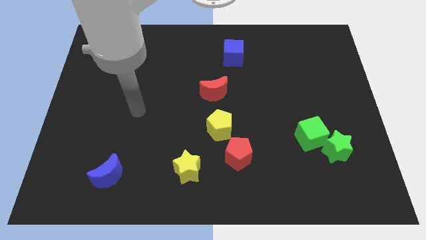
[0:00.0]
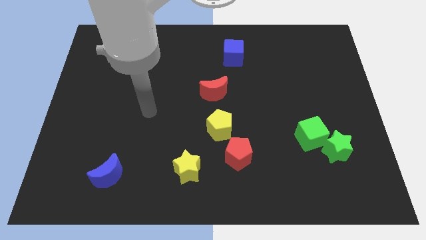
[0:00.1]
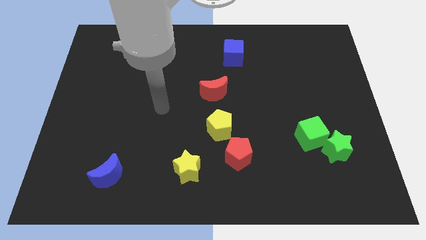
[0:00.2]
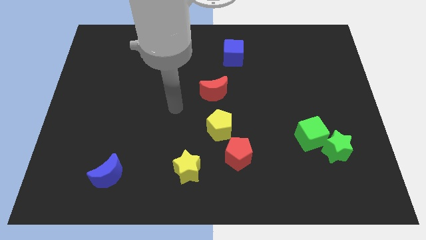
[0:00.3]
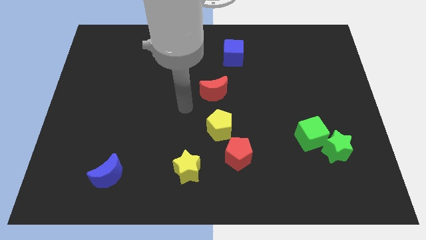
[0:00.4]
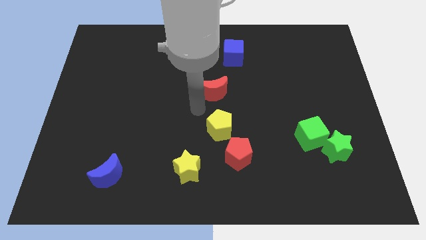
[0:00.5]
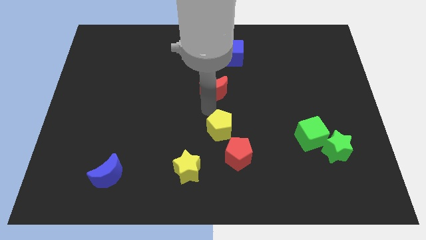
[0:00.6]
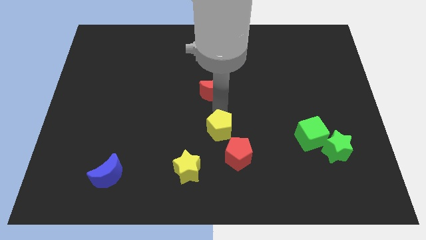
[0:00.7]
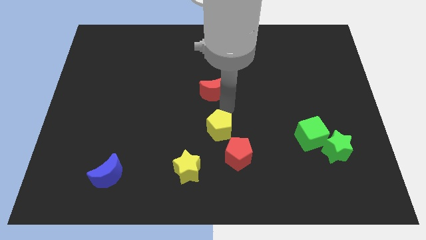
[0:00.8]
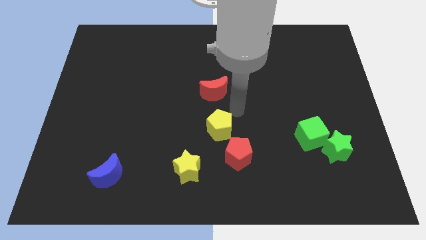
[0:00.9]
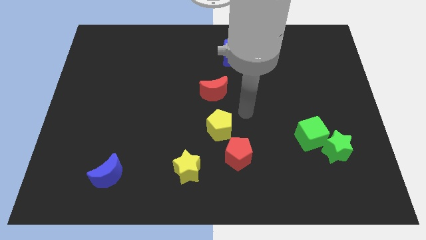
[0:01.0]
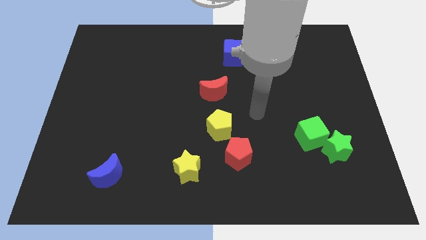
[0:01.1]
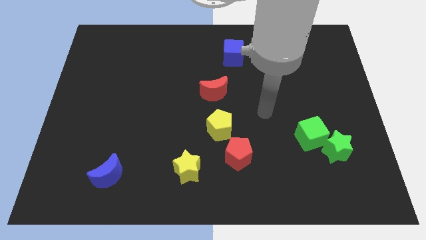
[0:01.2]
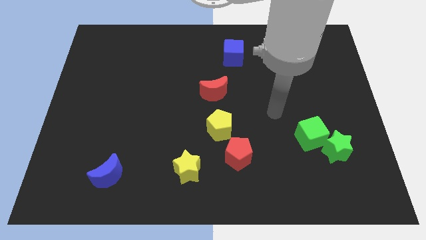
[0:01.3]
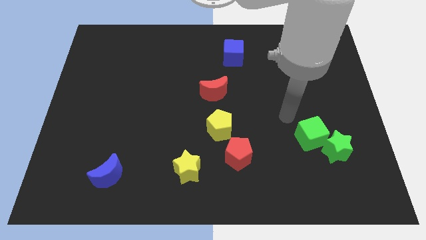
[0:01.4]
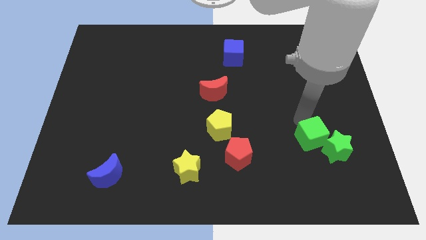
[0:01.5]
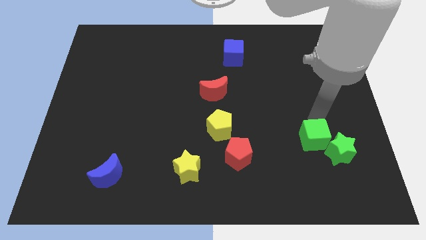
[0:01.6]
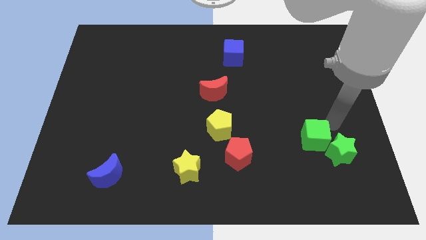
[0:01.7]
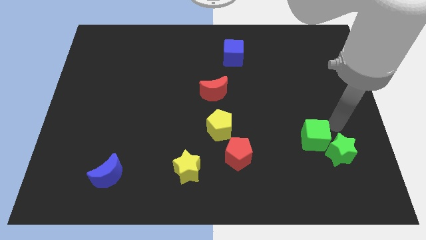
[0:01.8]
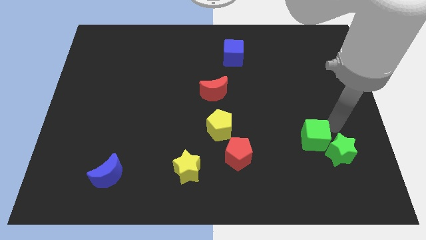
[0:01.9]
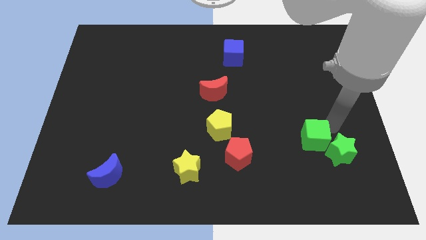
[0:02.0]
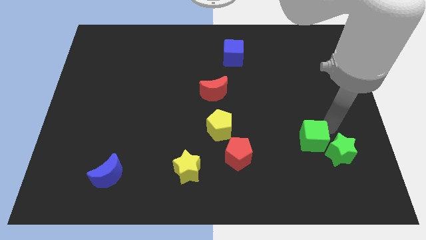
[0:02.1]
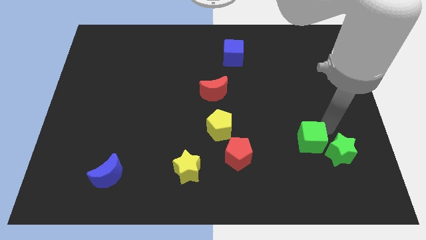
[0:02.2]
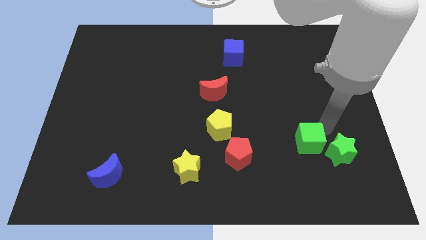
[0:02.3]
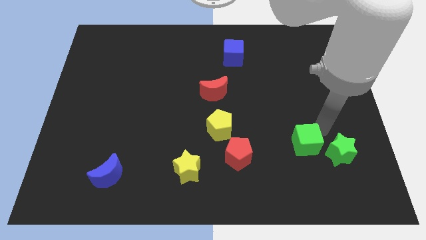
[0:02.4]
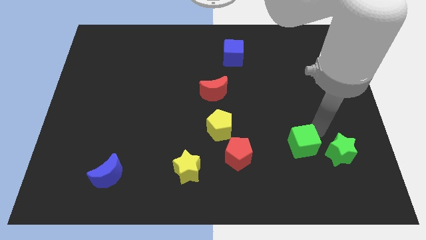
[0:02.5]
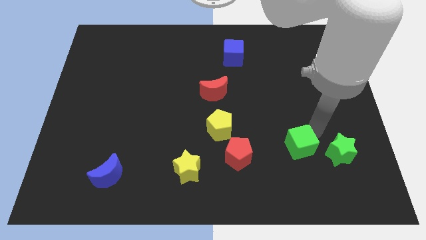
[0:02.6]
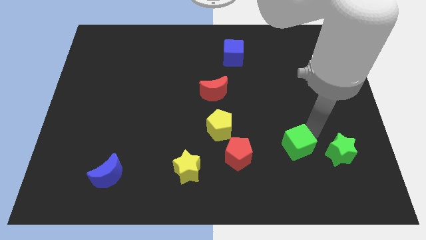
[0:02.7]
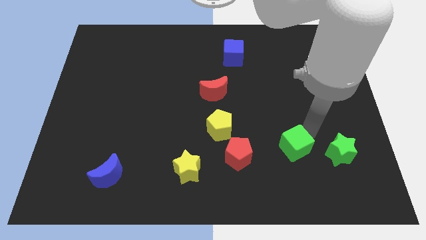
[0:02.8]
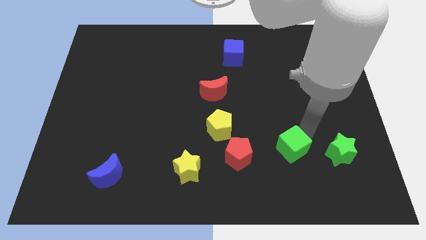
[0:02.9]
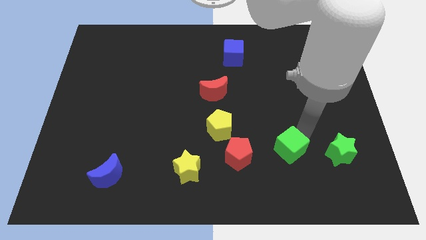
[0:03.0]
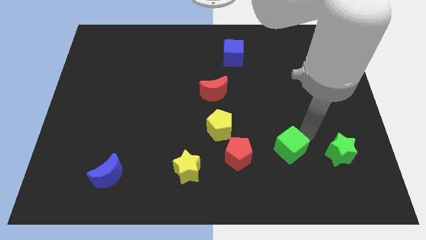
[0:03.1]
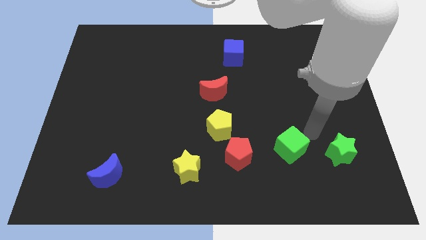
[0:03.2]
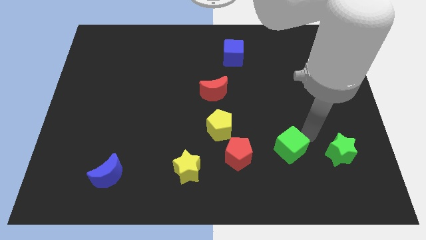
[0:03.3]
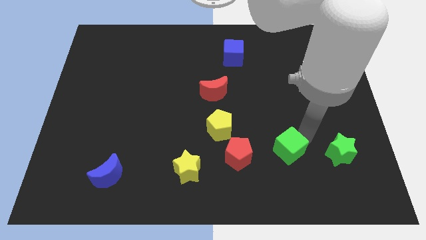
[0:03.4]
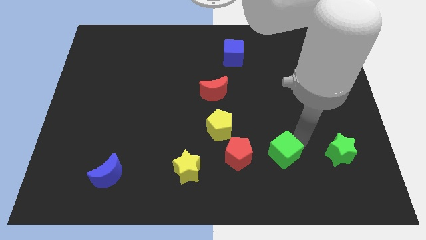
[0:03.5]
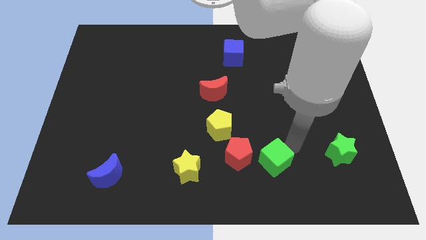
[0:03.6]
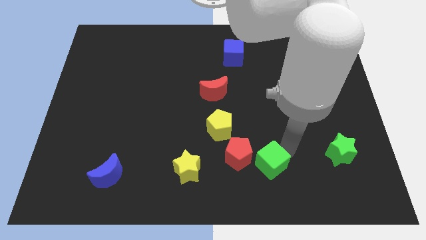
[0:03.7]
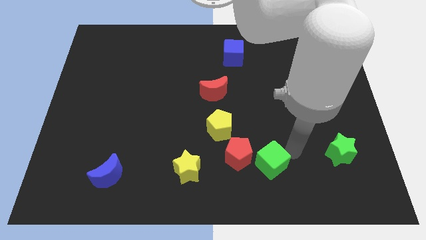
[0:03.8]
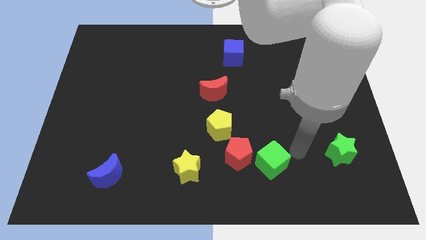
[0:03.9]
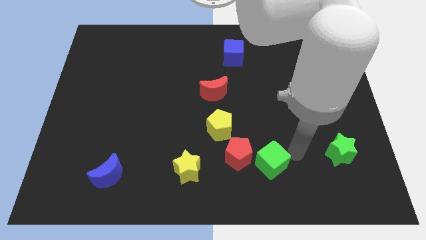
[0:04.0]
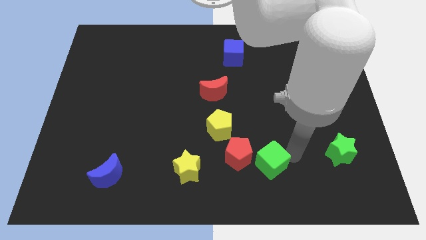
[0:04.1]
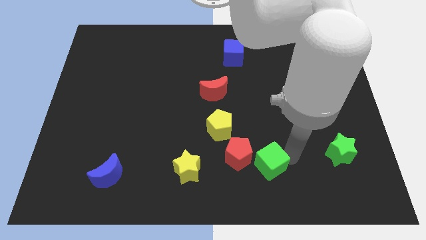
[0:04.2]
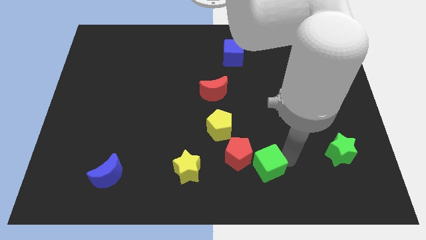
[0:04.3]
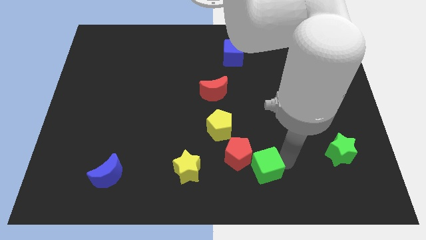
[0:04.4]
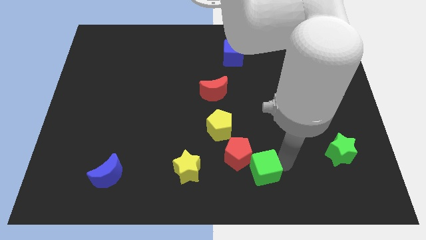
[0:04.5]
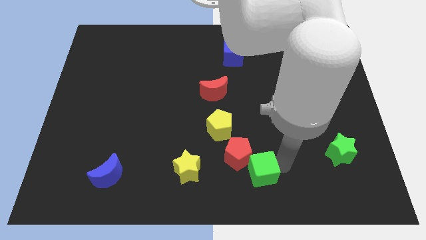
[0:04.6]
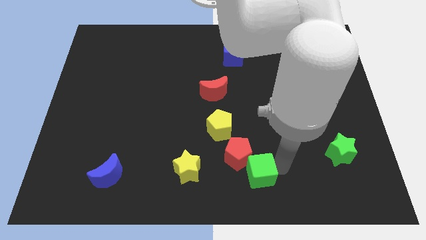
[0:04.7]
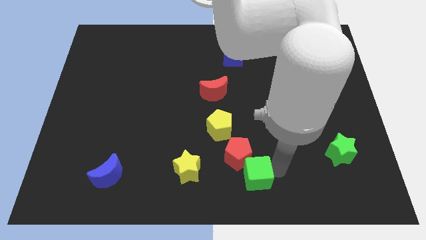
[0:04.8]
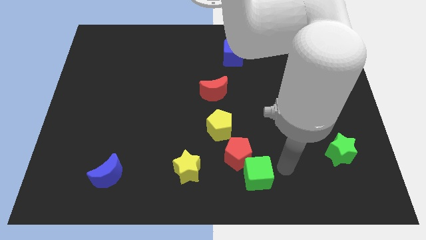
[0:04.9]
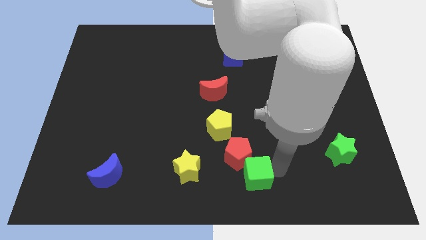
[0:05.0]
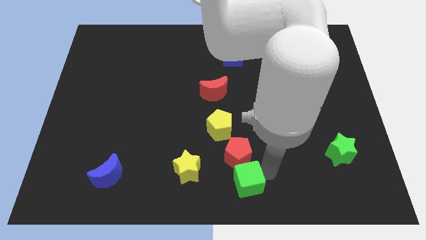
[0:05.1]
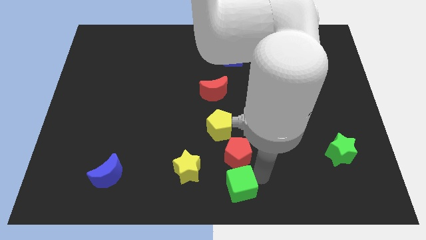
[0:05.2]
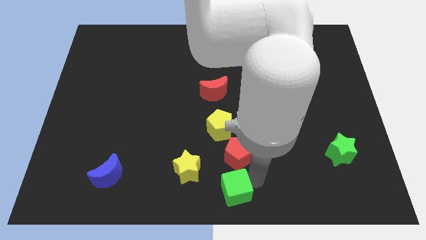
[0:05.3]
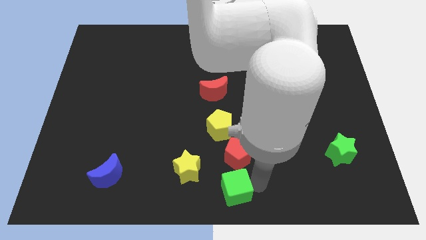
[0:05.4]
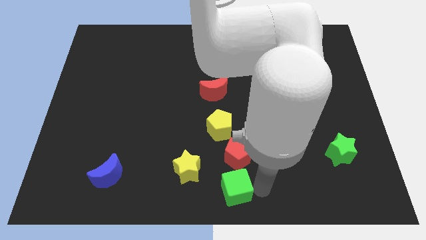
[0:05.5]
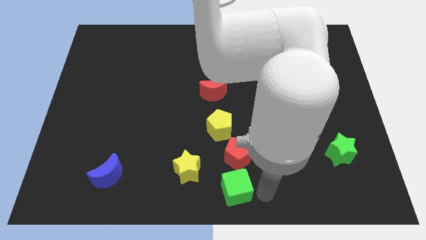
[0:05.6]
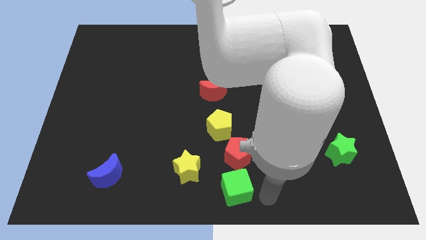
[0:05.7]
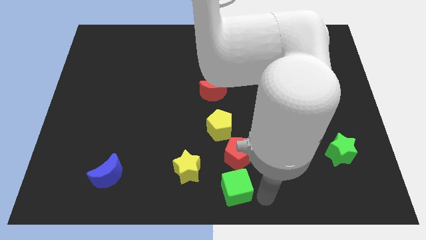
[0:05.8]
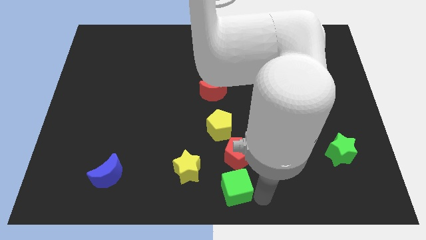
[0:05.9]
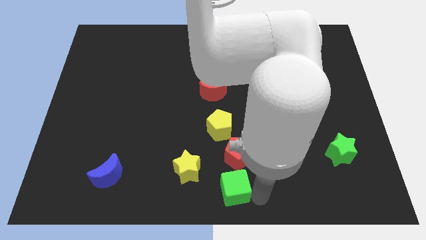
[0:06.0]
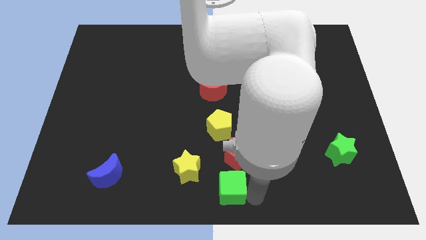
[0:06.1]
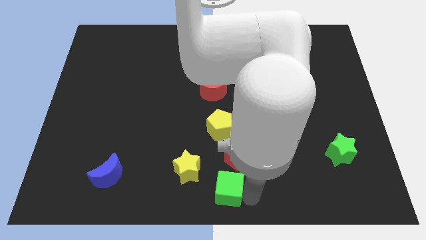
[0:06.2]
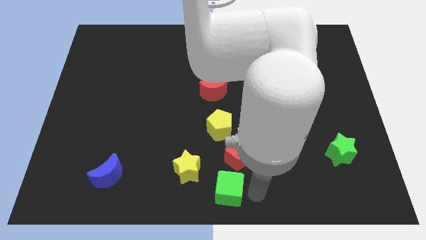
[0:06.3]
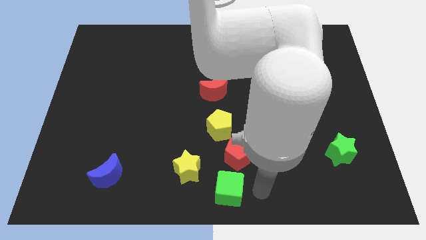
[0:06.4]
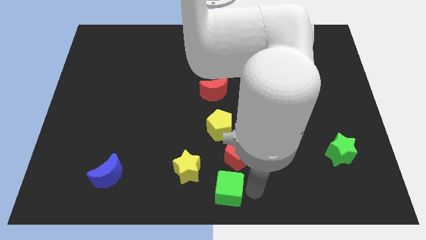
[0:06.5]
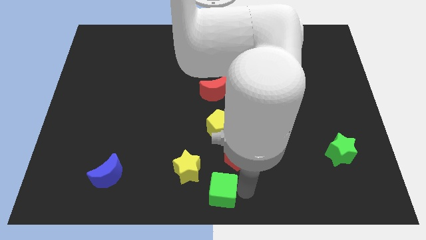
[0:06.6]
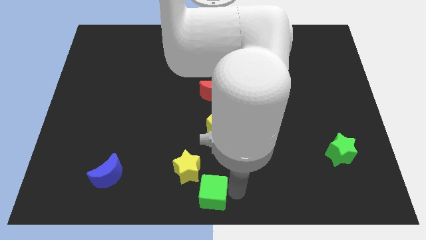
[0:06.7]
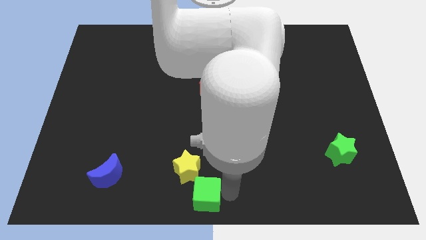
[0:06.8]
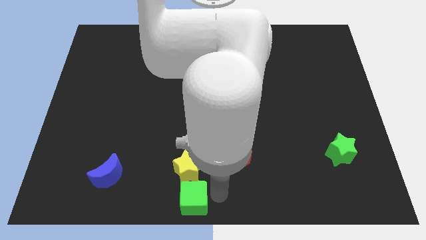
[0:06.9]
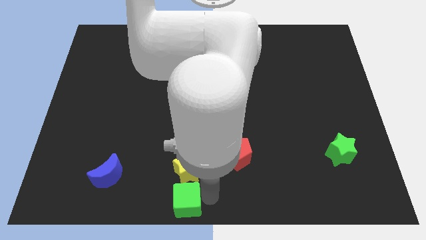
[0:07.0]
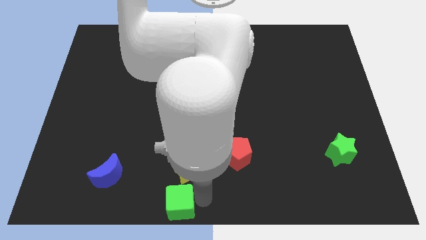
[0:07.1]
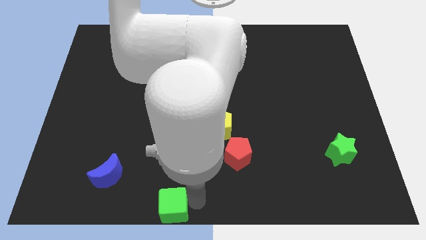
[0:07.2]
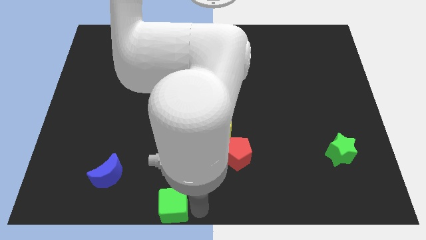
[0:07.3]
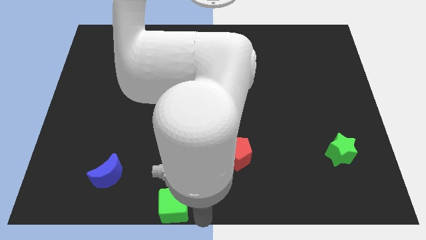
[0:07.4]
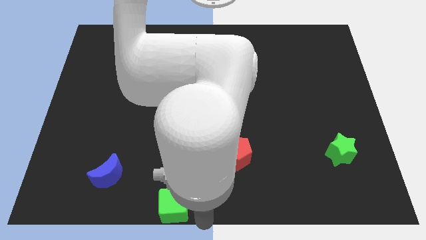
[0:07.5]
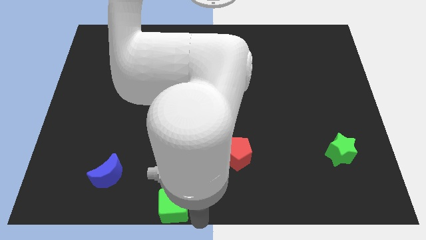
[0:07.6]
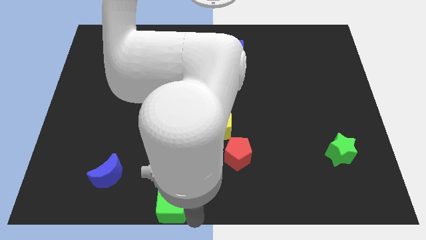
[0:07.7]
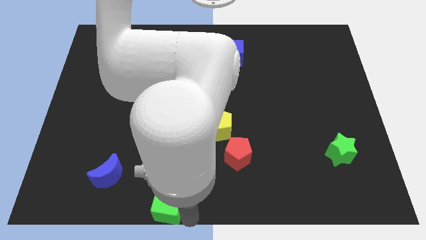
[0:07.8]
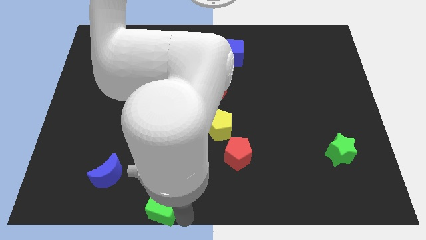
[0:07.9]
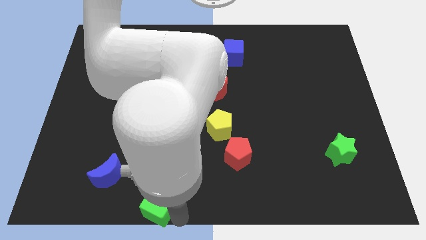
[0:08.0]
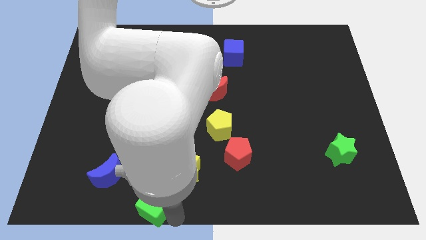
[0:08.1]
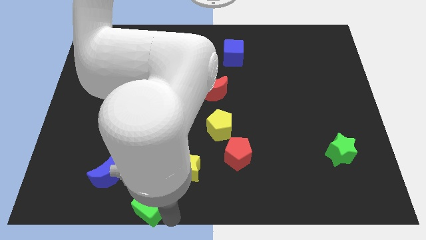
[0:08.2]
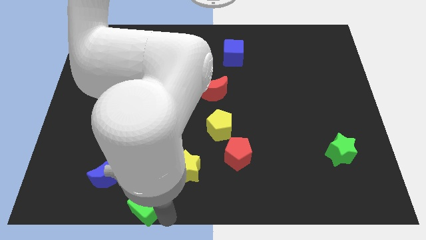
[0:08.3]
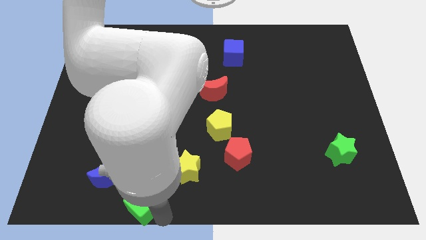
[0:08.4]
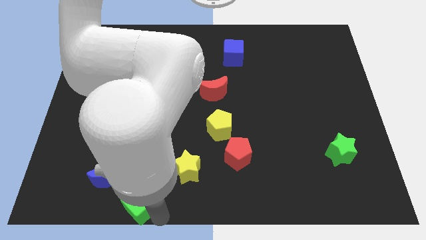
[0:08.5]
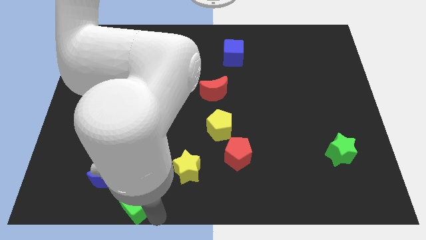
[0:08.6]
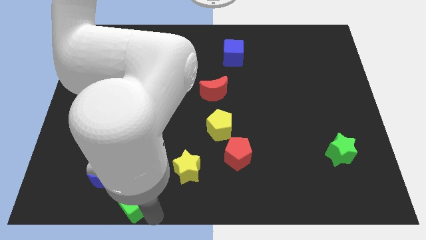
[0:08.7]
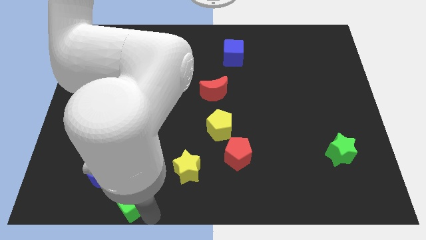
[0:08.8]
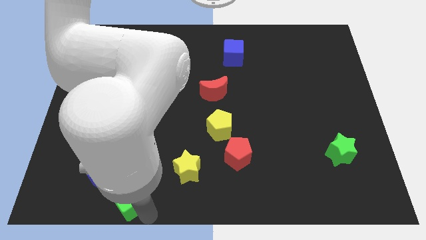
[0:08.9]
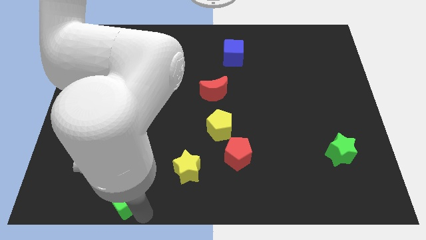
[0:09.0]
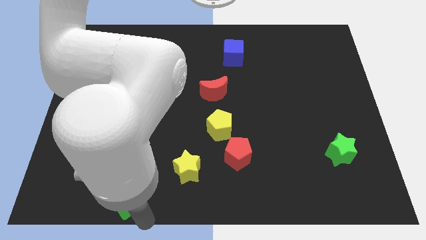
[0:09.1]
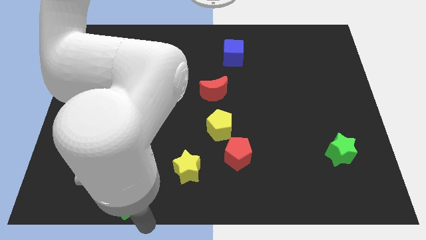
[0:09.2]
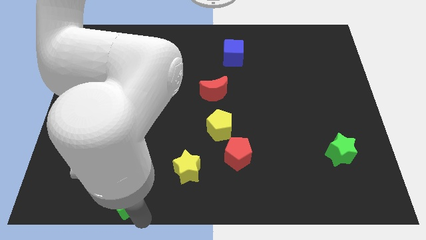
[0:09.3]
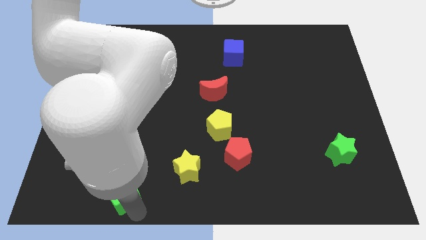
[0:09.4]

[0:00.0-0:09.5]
move the green cube towards the blue moon
